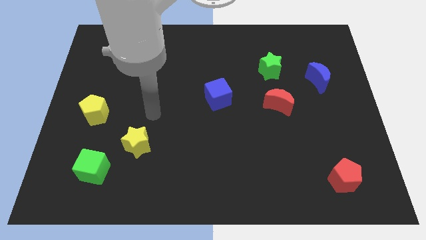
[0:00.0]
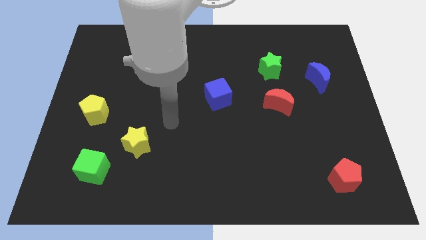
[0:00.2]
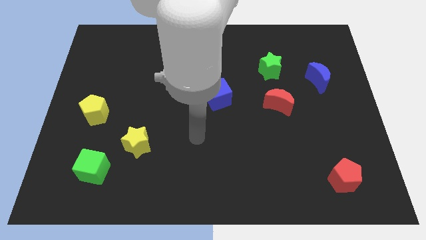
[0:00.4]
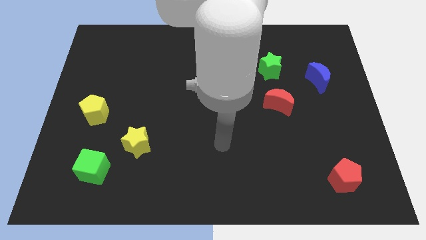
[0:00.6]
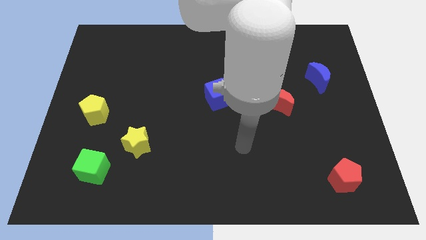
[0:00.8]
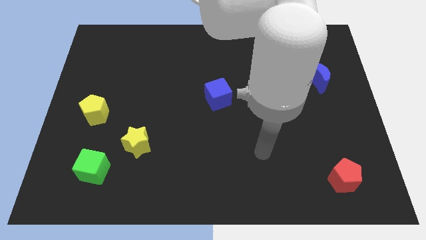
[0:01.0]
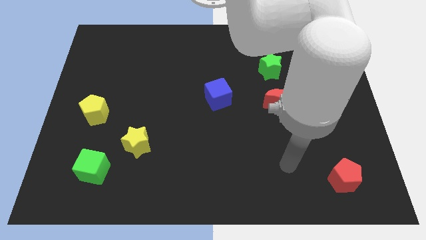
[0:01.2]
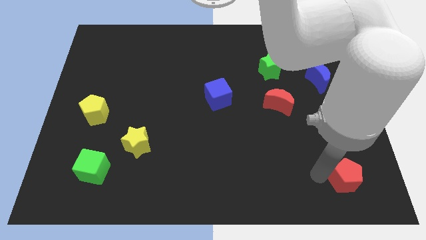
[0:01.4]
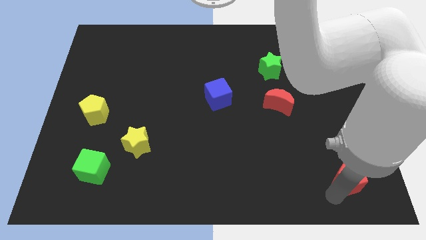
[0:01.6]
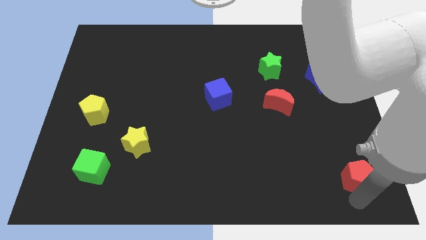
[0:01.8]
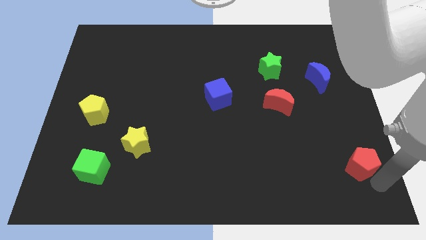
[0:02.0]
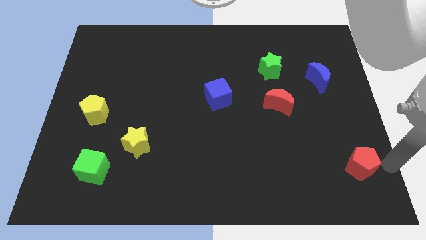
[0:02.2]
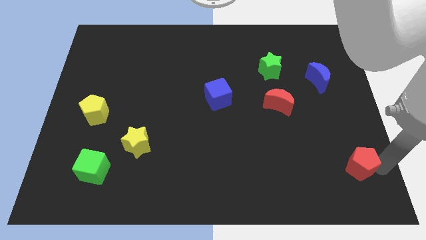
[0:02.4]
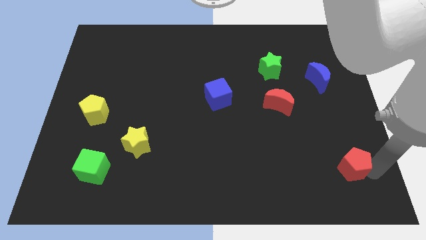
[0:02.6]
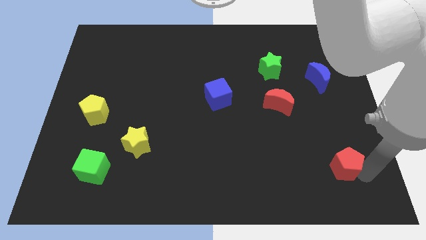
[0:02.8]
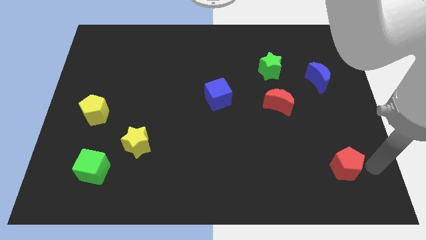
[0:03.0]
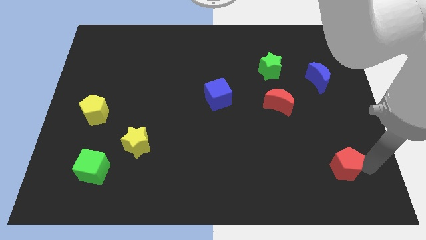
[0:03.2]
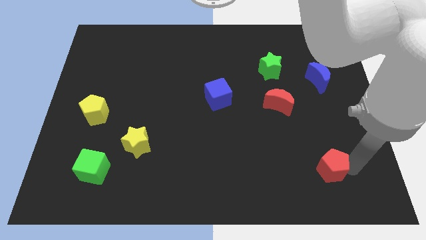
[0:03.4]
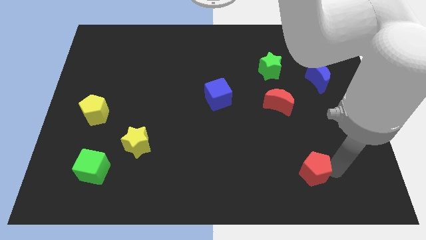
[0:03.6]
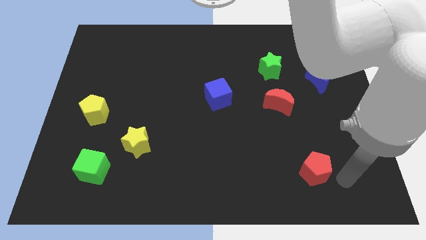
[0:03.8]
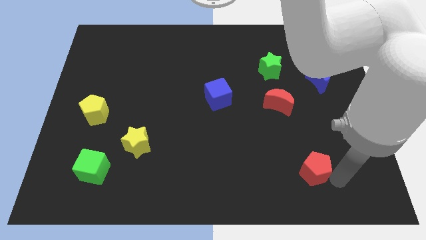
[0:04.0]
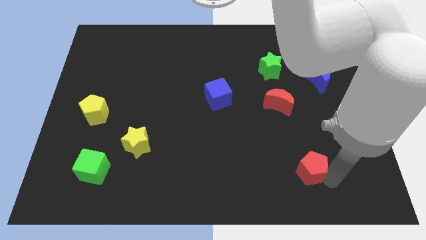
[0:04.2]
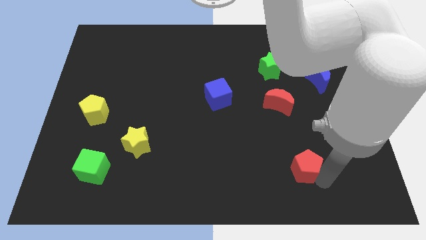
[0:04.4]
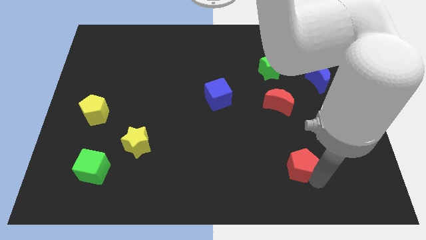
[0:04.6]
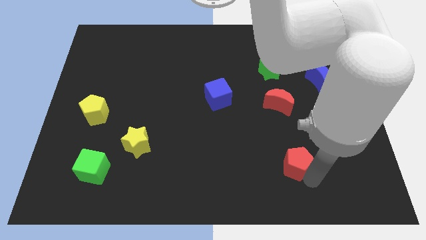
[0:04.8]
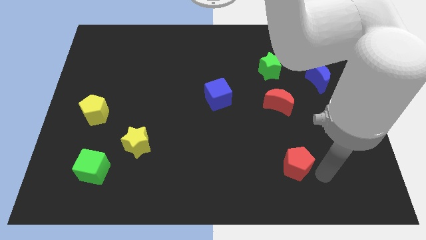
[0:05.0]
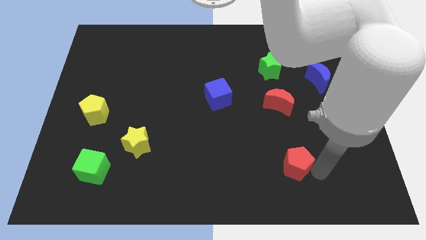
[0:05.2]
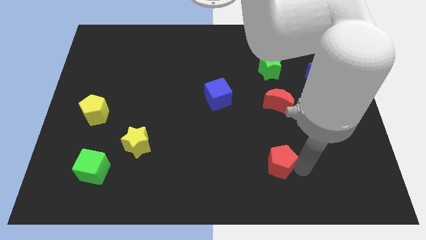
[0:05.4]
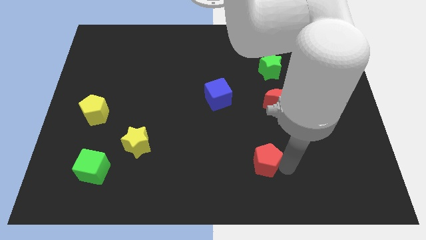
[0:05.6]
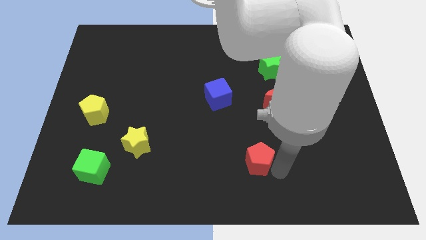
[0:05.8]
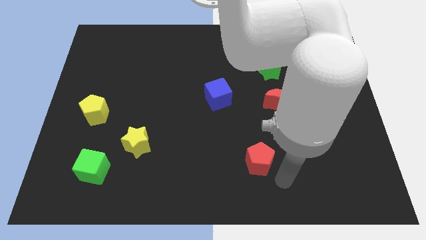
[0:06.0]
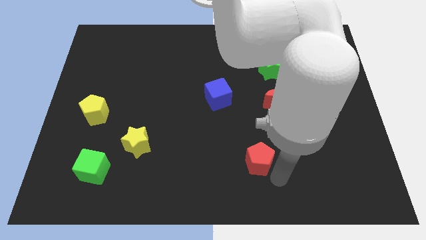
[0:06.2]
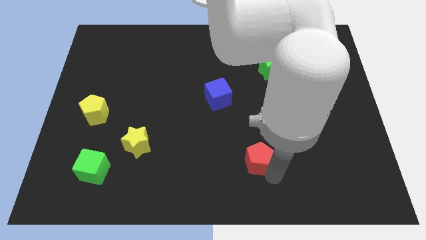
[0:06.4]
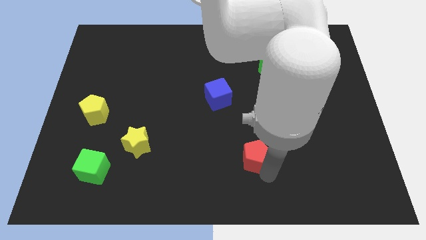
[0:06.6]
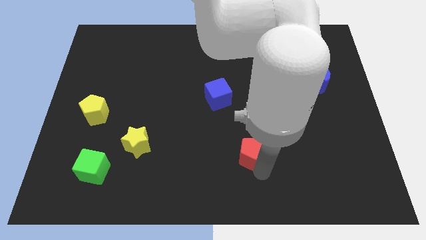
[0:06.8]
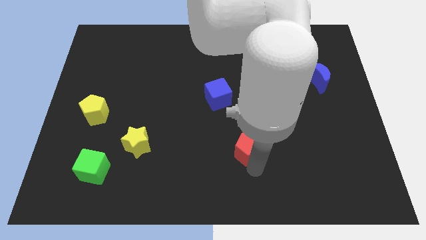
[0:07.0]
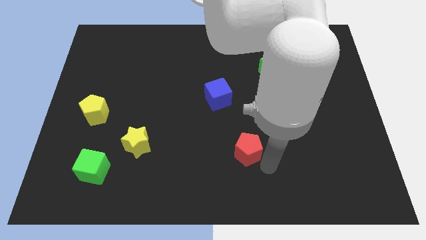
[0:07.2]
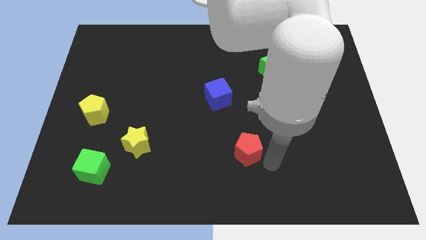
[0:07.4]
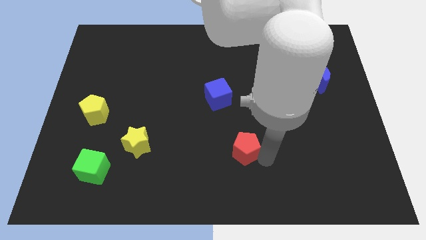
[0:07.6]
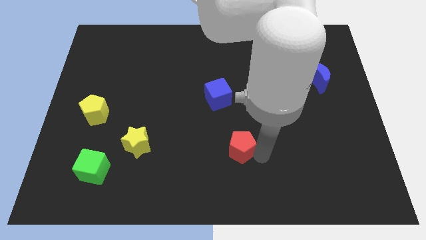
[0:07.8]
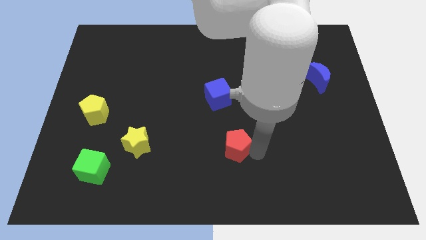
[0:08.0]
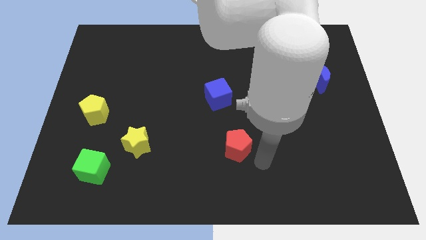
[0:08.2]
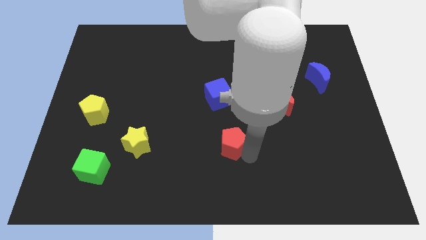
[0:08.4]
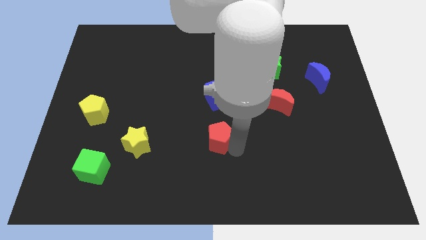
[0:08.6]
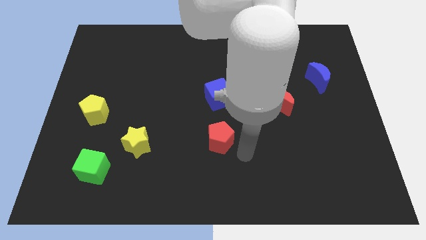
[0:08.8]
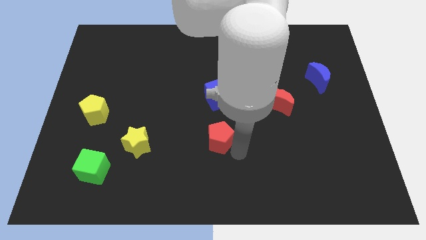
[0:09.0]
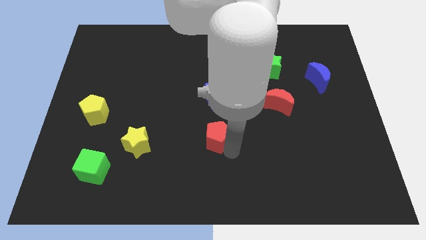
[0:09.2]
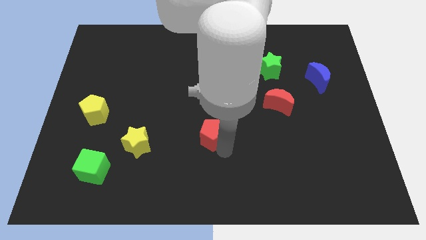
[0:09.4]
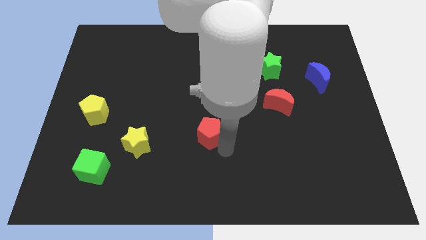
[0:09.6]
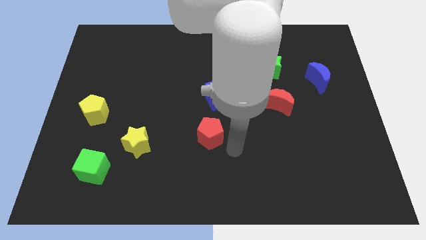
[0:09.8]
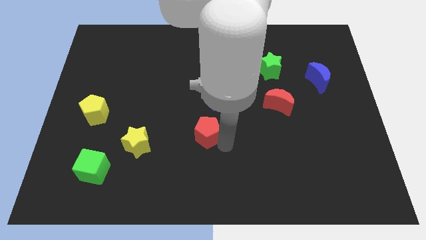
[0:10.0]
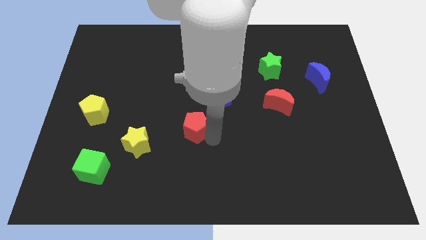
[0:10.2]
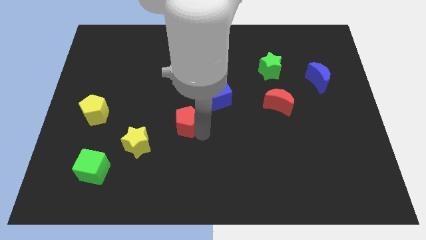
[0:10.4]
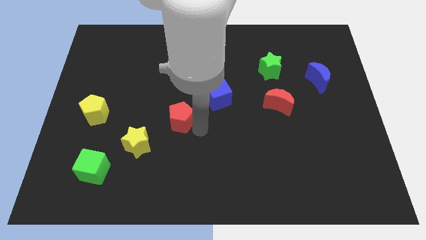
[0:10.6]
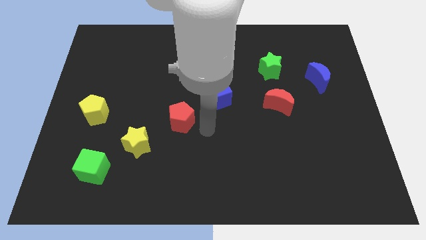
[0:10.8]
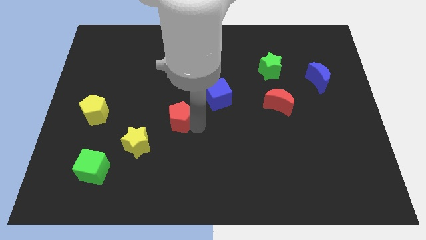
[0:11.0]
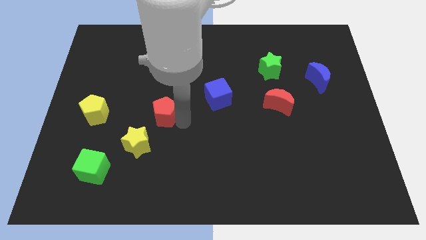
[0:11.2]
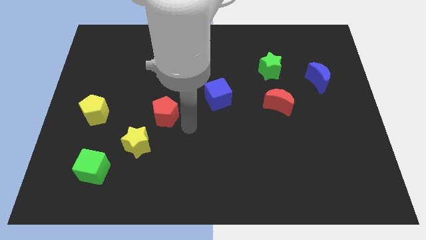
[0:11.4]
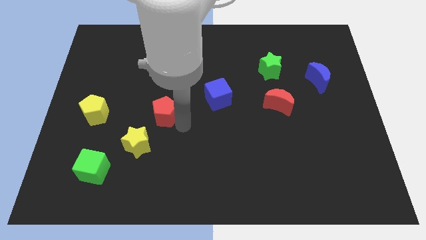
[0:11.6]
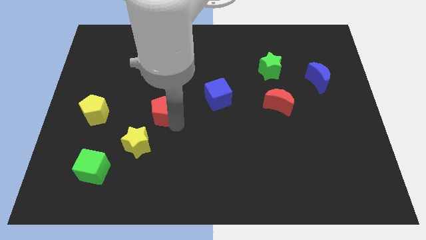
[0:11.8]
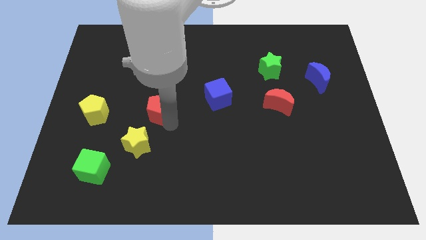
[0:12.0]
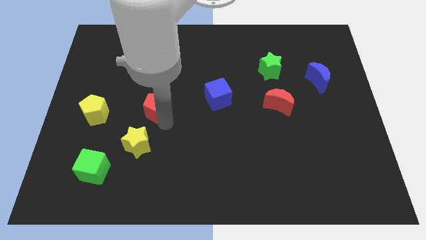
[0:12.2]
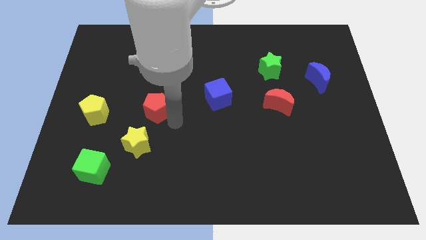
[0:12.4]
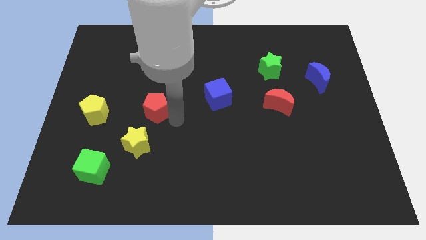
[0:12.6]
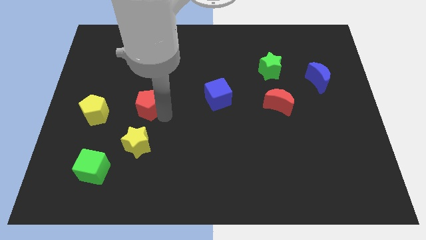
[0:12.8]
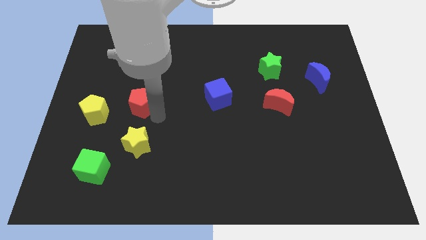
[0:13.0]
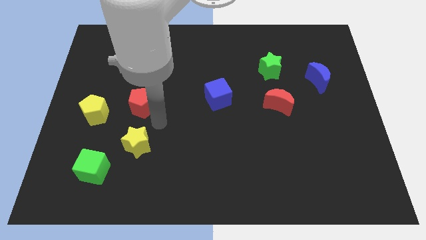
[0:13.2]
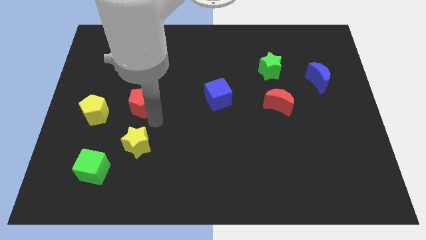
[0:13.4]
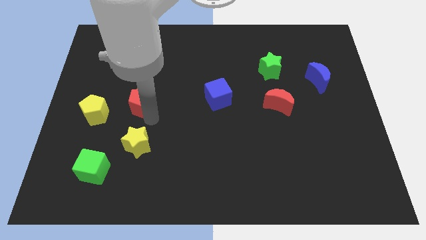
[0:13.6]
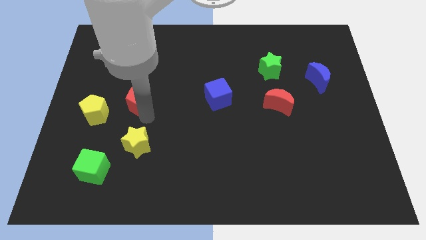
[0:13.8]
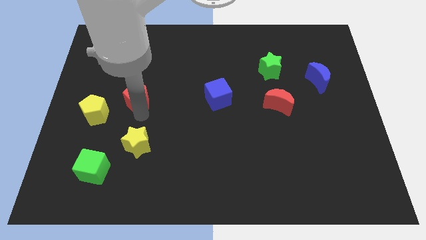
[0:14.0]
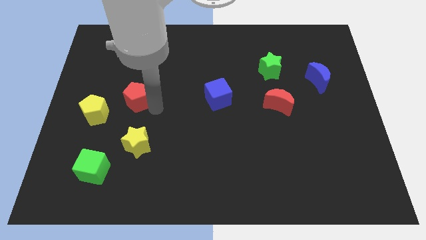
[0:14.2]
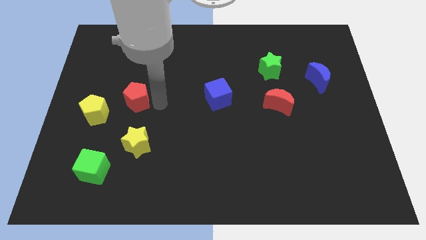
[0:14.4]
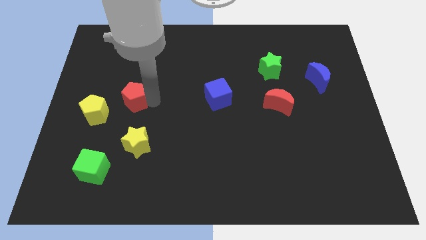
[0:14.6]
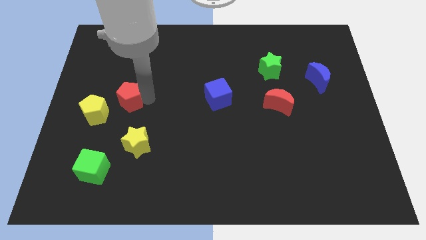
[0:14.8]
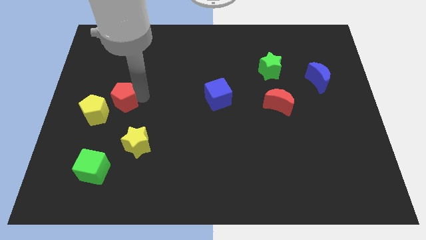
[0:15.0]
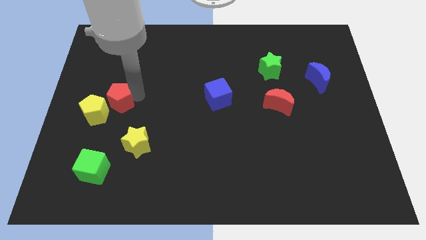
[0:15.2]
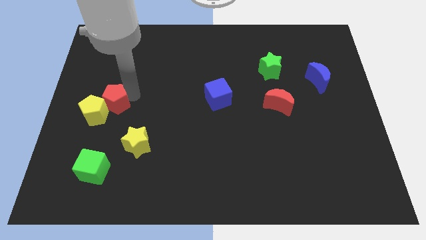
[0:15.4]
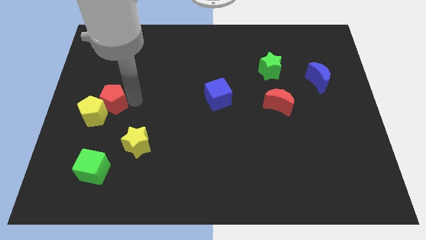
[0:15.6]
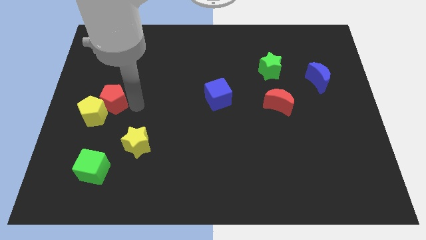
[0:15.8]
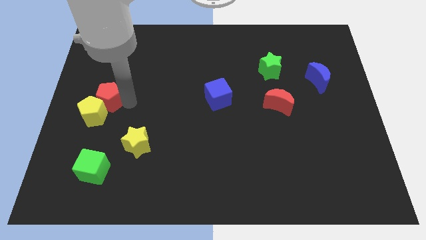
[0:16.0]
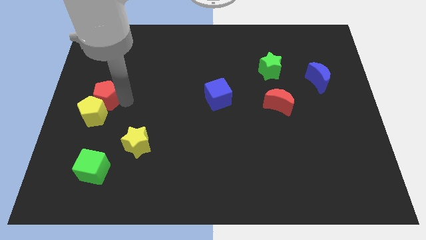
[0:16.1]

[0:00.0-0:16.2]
put the red pentagon to the center left

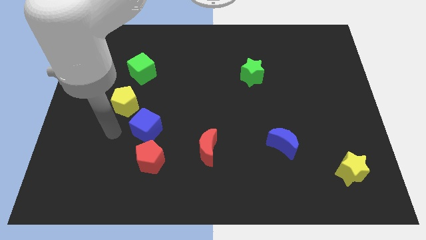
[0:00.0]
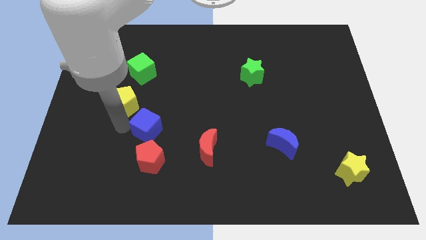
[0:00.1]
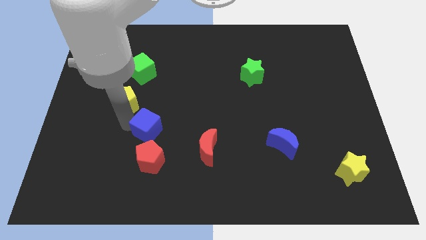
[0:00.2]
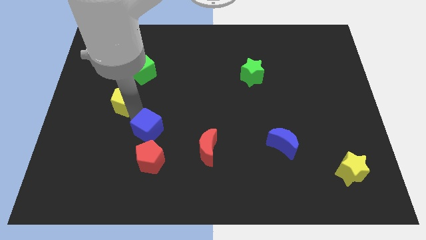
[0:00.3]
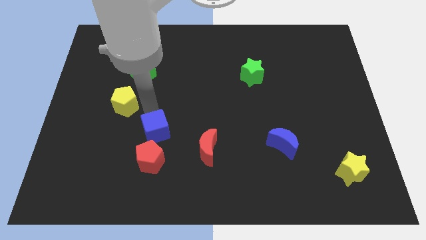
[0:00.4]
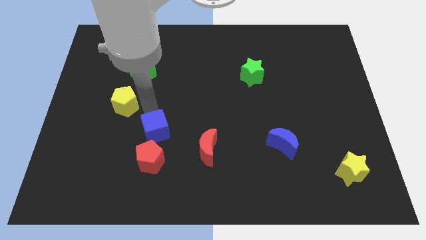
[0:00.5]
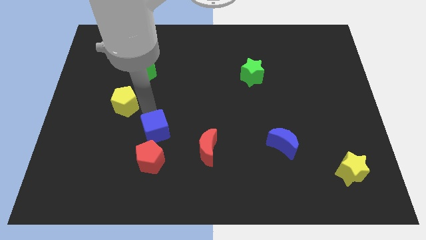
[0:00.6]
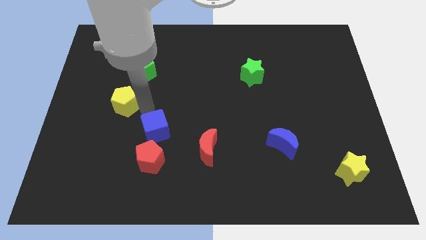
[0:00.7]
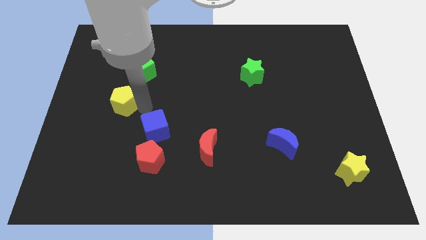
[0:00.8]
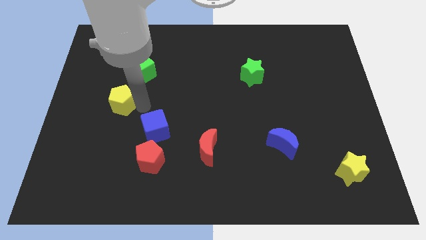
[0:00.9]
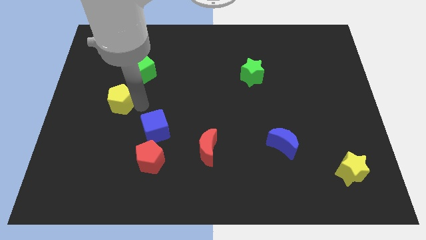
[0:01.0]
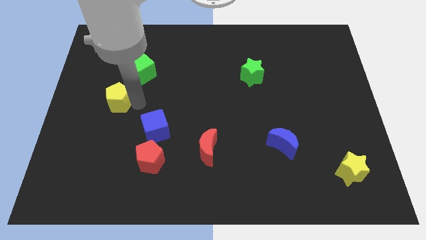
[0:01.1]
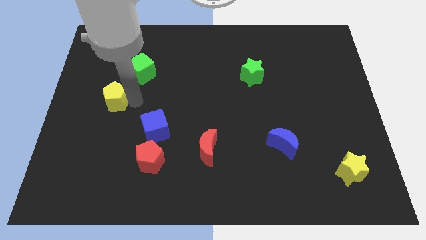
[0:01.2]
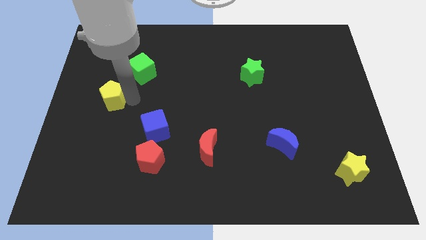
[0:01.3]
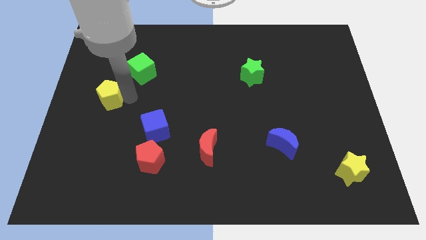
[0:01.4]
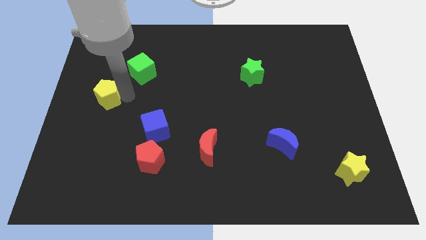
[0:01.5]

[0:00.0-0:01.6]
push the yellow pentagon to the center left
